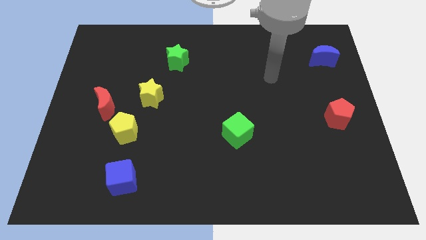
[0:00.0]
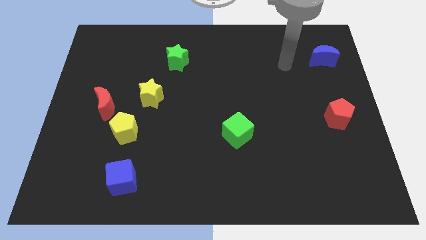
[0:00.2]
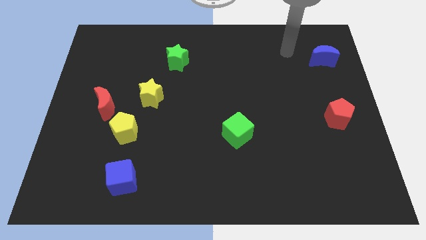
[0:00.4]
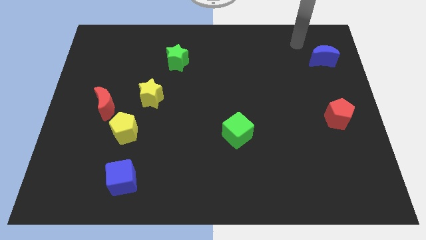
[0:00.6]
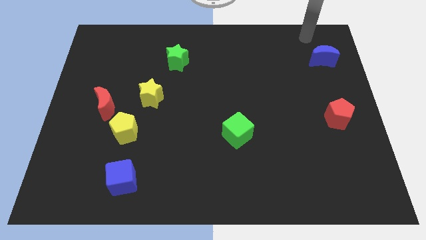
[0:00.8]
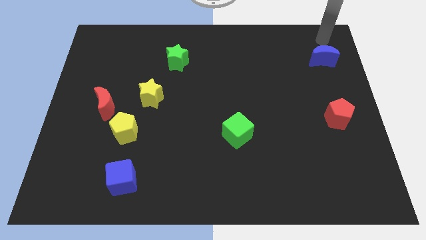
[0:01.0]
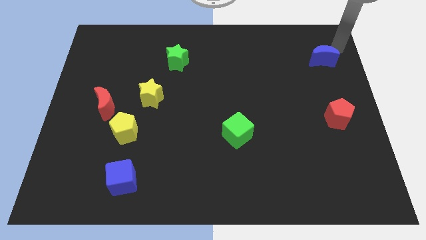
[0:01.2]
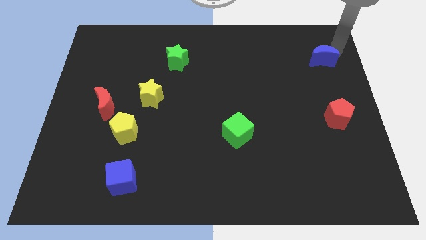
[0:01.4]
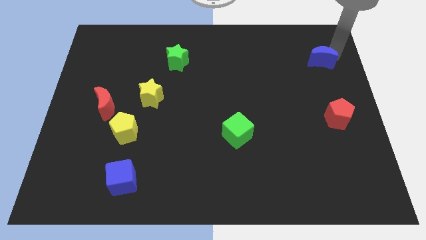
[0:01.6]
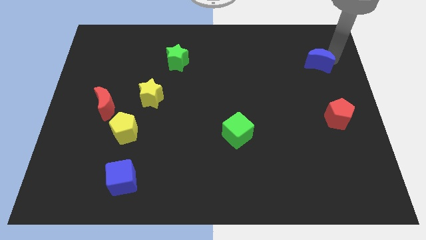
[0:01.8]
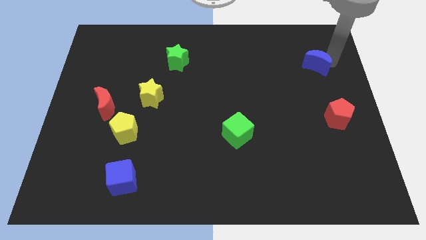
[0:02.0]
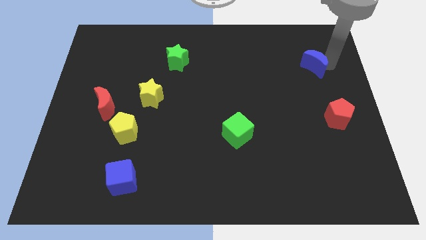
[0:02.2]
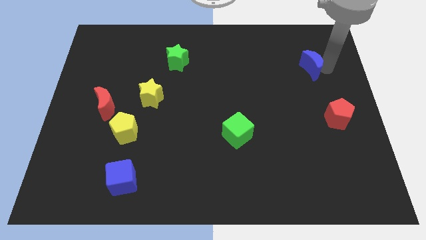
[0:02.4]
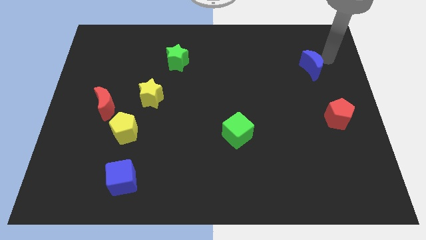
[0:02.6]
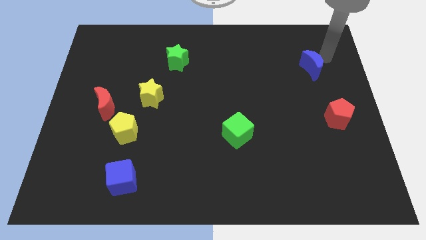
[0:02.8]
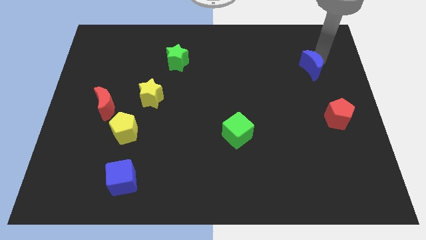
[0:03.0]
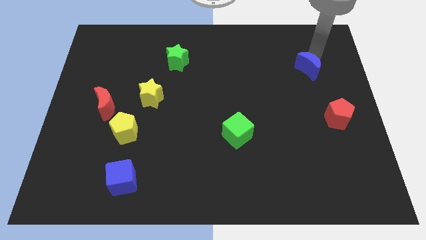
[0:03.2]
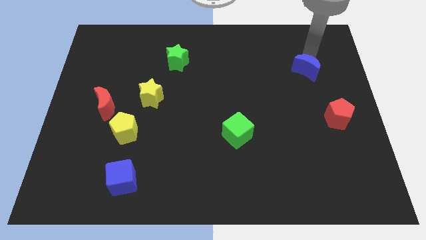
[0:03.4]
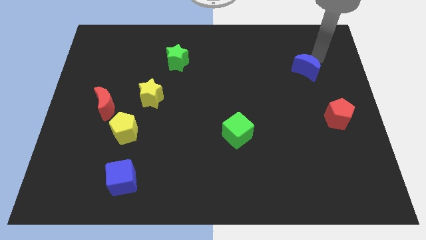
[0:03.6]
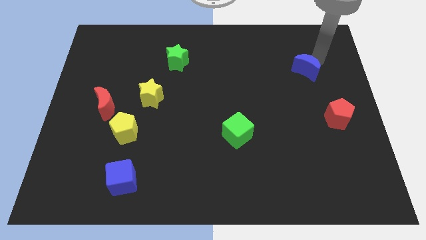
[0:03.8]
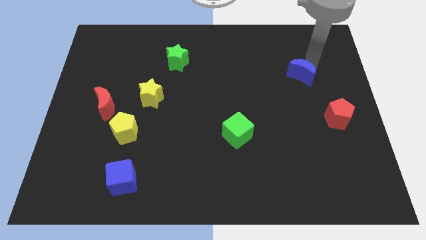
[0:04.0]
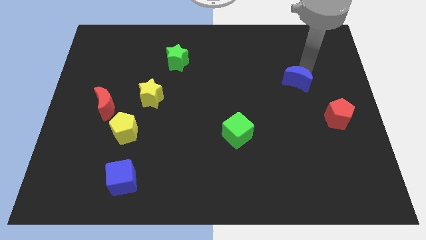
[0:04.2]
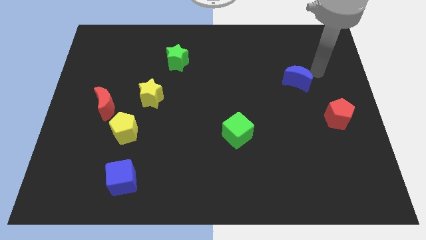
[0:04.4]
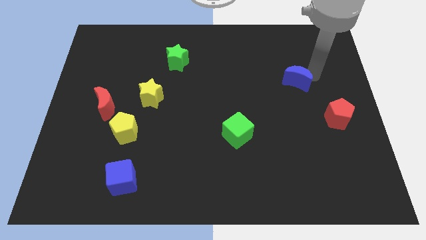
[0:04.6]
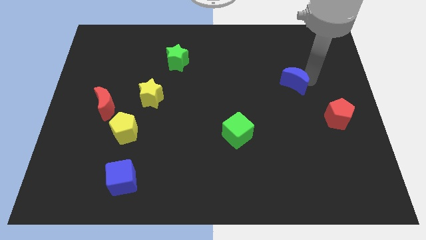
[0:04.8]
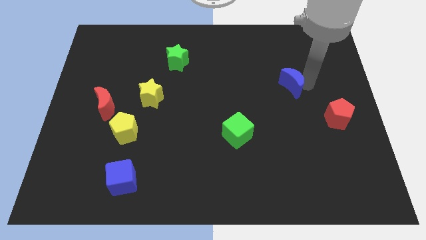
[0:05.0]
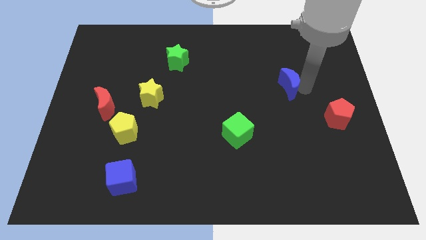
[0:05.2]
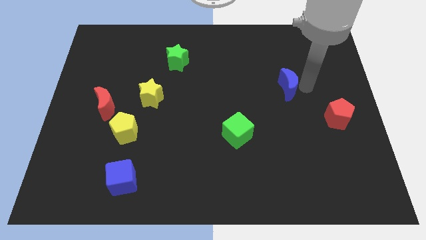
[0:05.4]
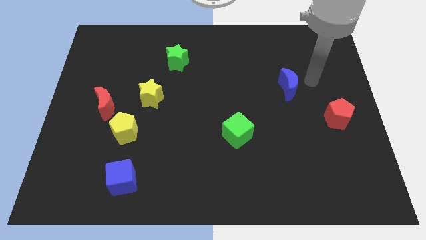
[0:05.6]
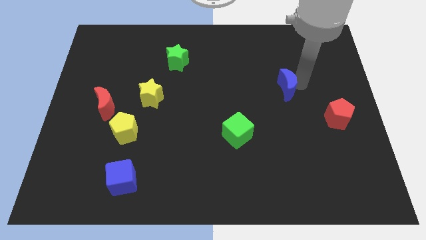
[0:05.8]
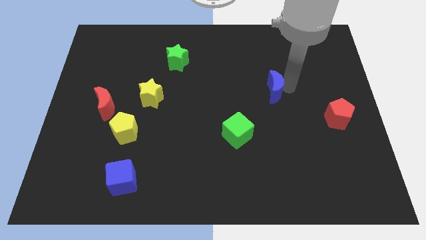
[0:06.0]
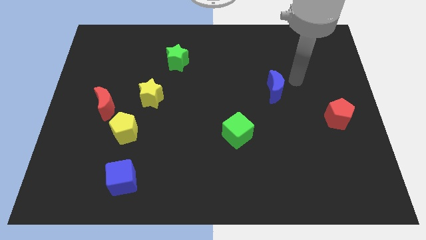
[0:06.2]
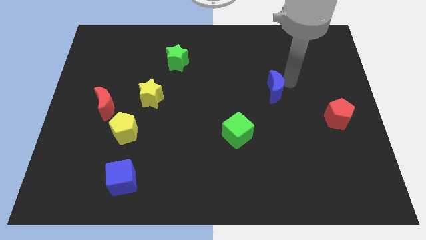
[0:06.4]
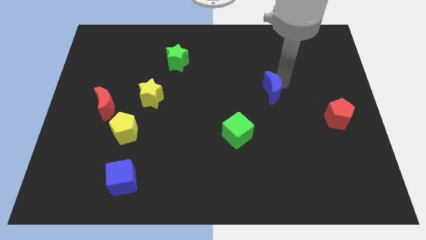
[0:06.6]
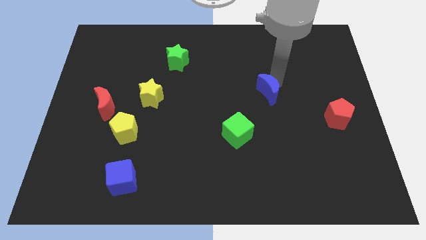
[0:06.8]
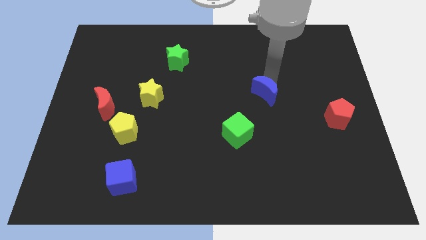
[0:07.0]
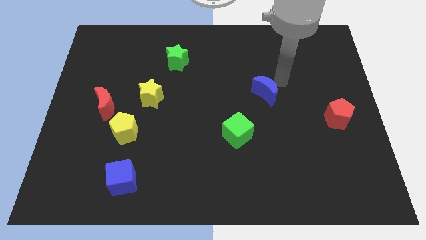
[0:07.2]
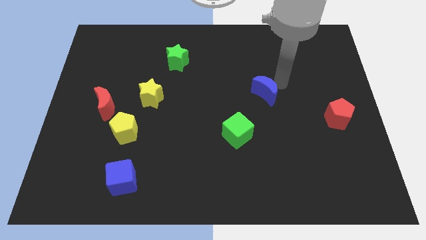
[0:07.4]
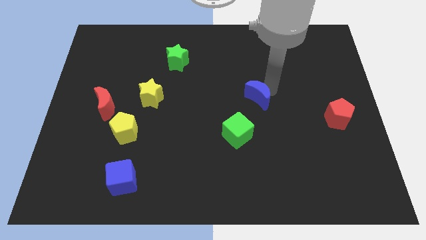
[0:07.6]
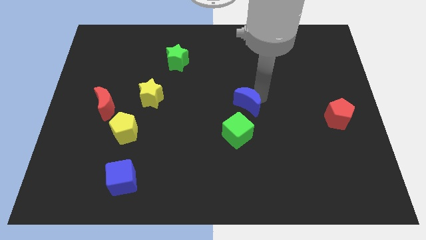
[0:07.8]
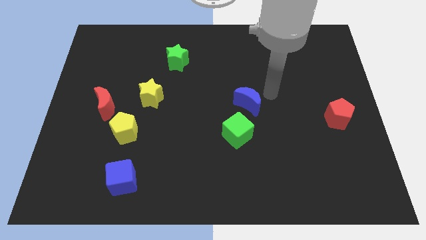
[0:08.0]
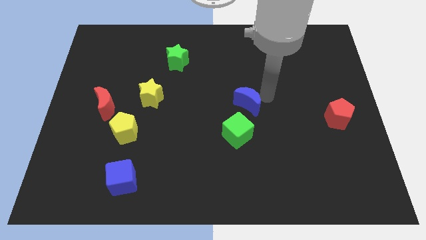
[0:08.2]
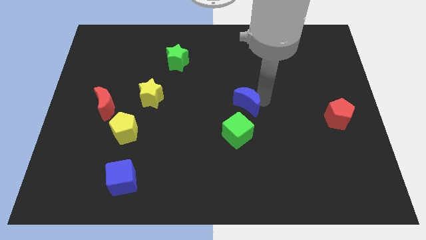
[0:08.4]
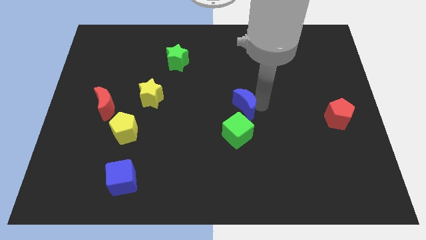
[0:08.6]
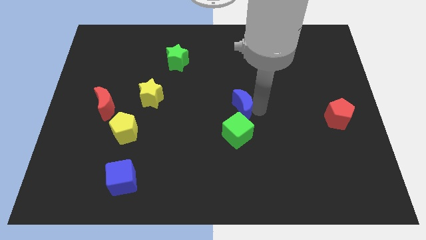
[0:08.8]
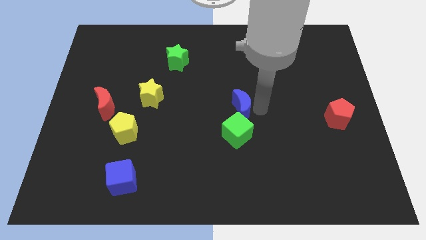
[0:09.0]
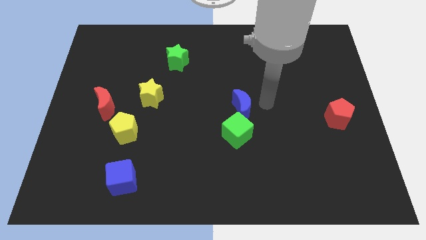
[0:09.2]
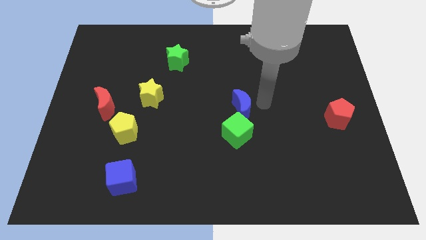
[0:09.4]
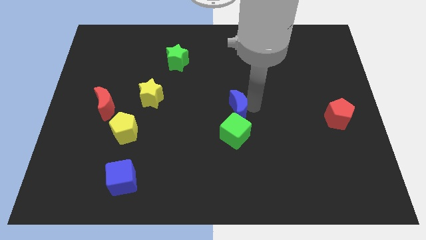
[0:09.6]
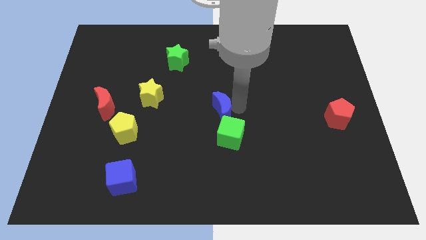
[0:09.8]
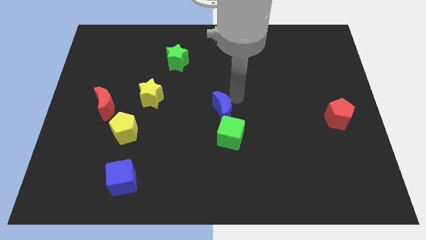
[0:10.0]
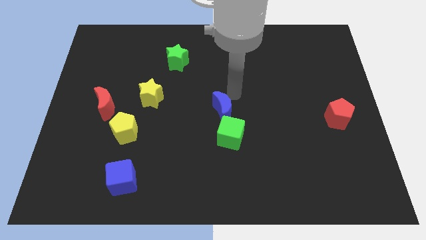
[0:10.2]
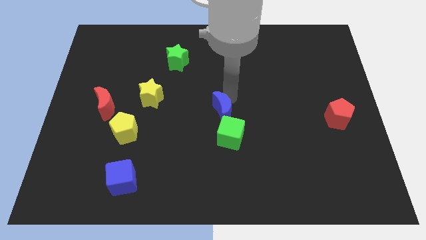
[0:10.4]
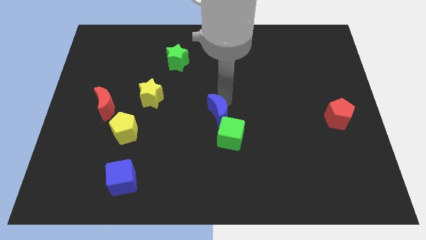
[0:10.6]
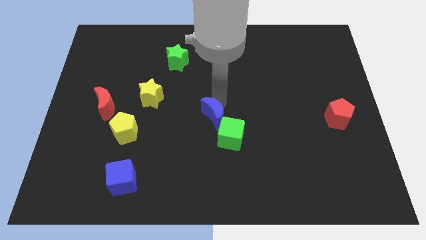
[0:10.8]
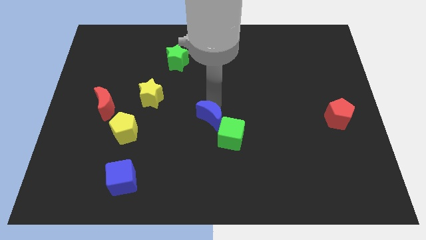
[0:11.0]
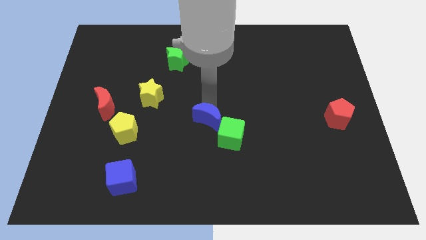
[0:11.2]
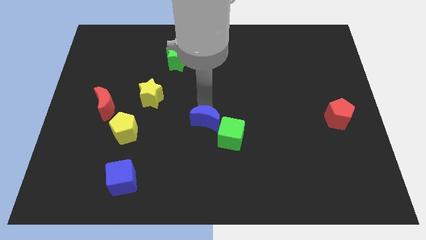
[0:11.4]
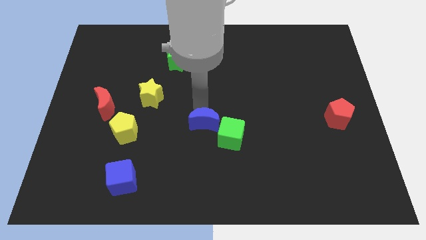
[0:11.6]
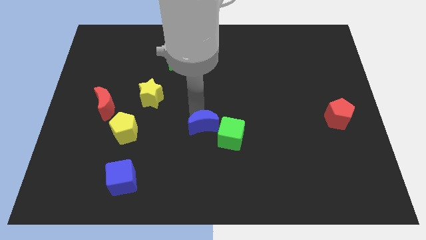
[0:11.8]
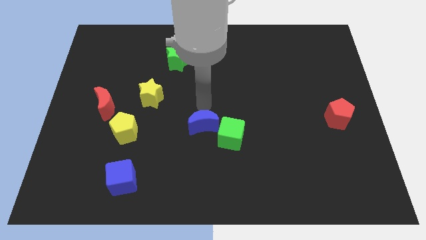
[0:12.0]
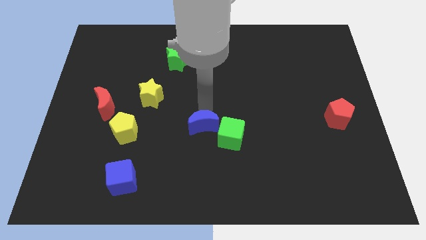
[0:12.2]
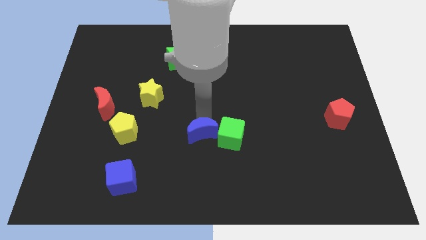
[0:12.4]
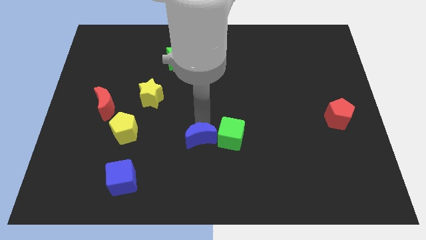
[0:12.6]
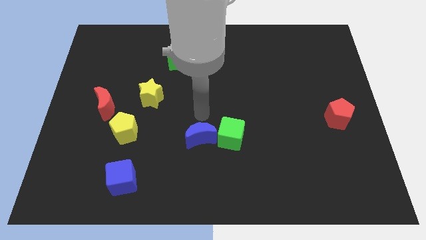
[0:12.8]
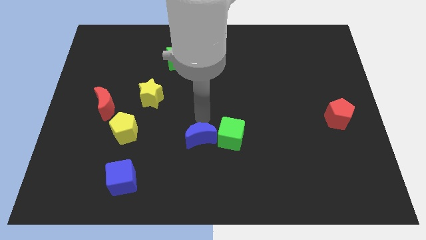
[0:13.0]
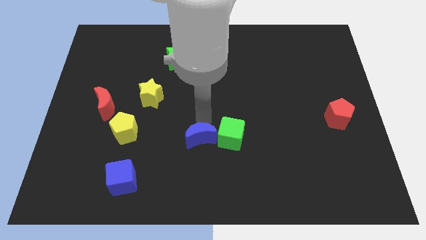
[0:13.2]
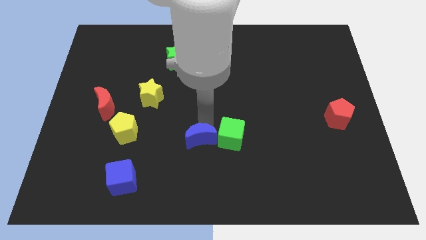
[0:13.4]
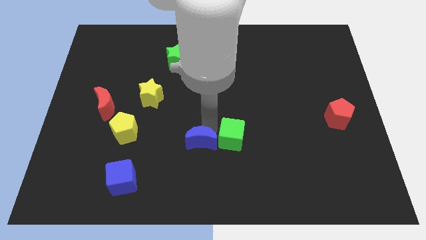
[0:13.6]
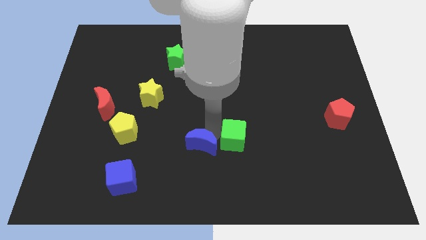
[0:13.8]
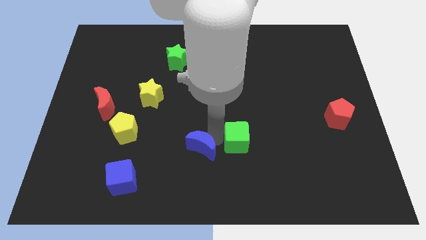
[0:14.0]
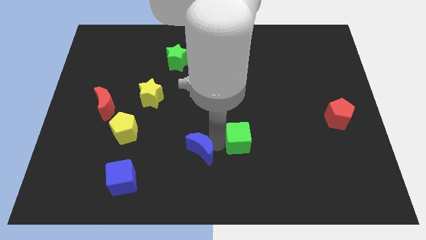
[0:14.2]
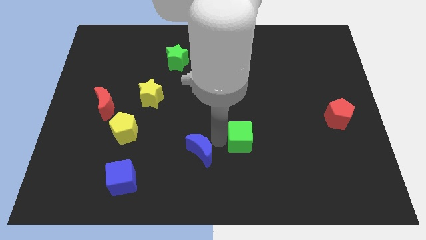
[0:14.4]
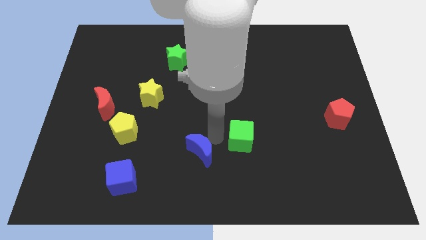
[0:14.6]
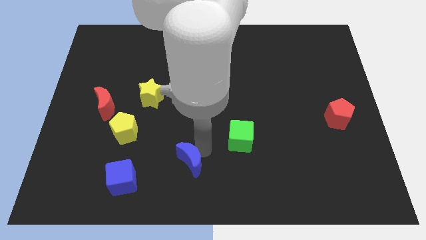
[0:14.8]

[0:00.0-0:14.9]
slide the blue moon to the right side of the blue cube
